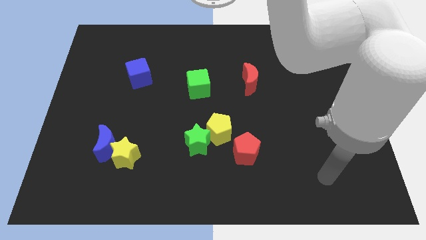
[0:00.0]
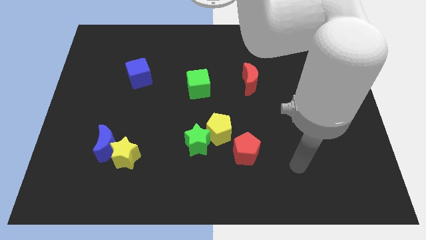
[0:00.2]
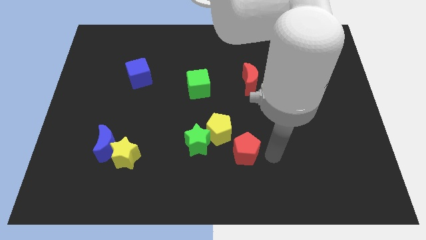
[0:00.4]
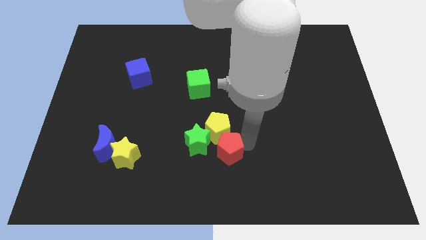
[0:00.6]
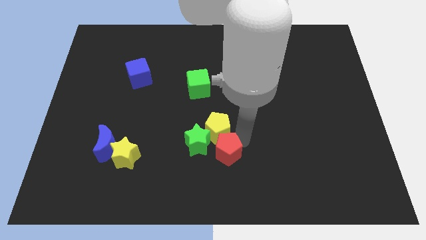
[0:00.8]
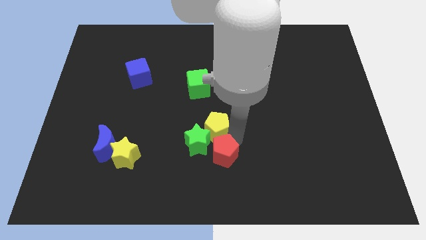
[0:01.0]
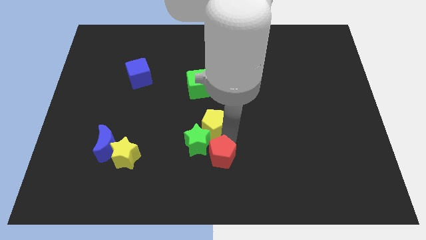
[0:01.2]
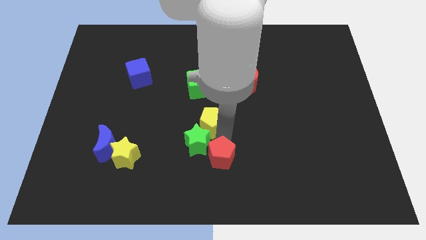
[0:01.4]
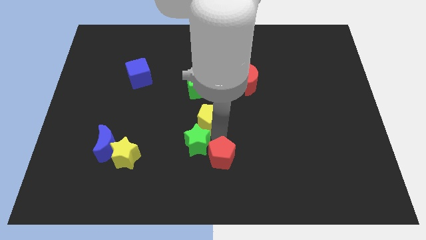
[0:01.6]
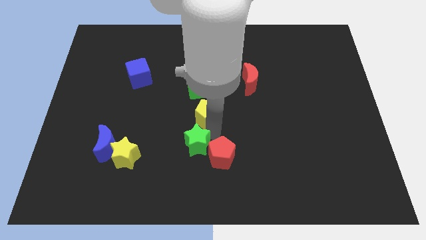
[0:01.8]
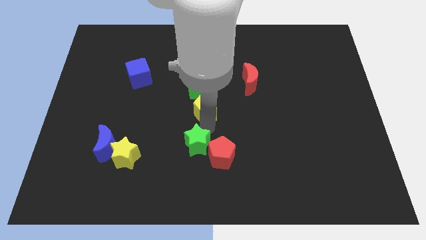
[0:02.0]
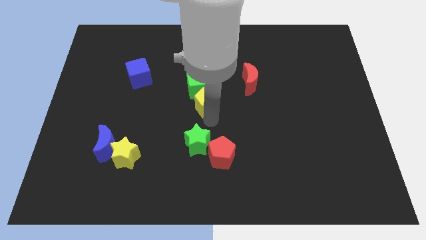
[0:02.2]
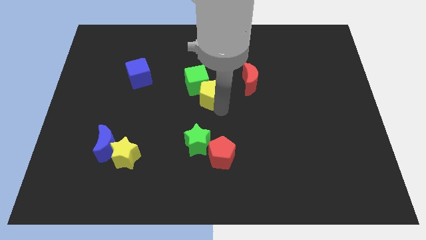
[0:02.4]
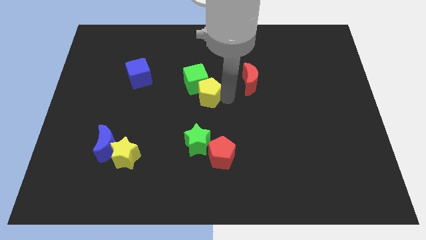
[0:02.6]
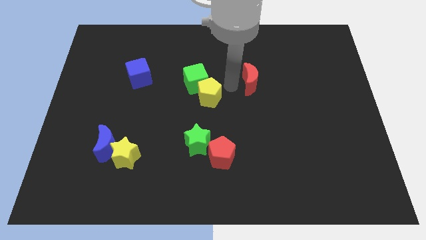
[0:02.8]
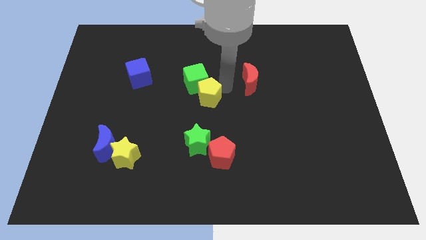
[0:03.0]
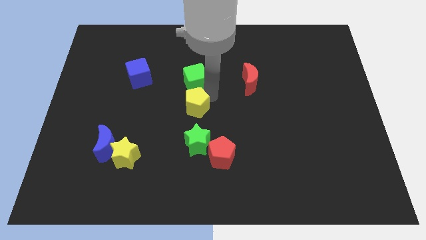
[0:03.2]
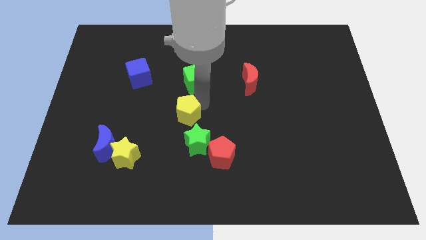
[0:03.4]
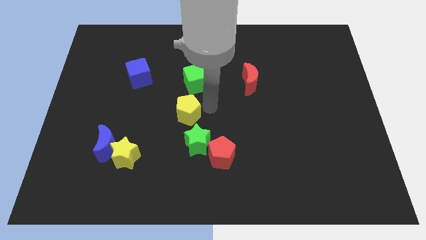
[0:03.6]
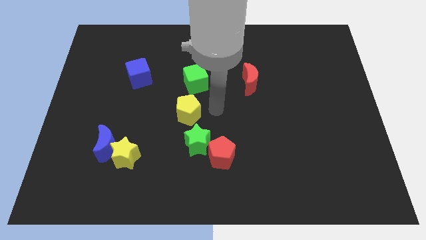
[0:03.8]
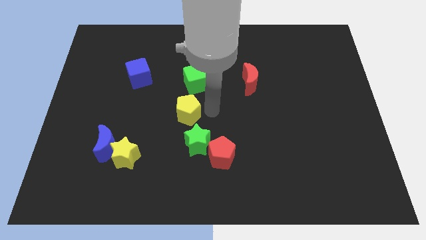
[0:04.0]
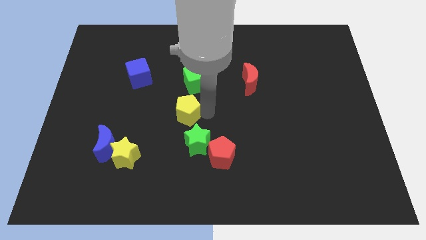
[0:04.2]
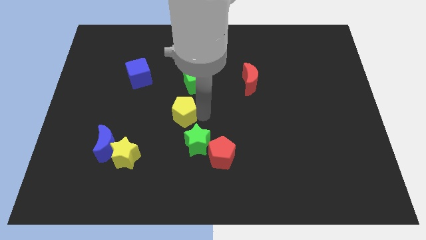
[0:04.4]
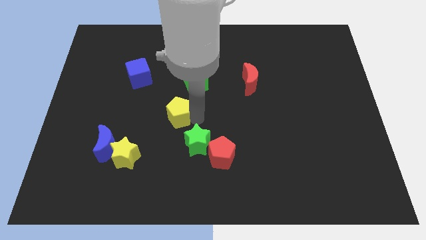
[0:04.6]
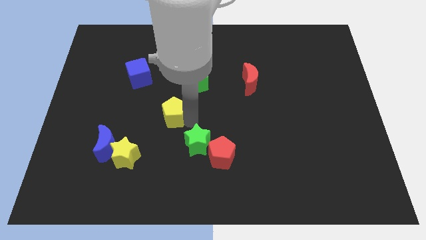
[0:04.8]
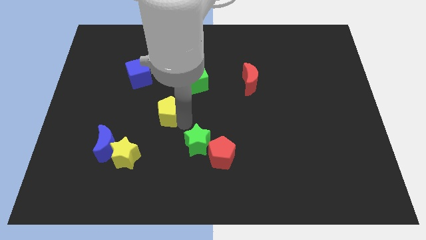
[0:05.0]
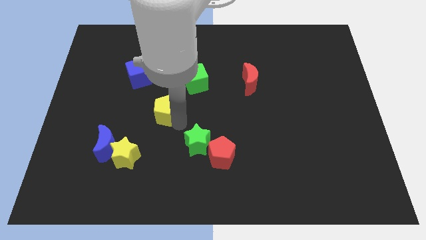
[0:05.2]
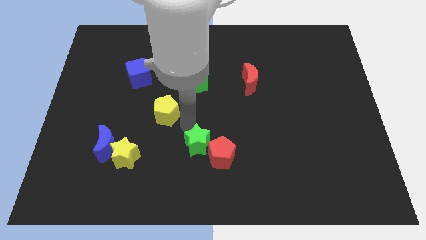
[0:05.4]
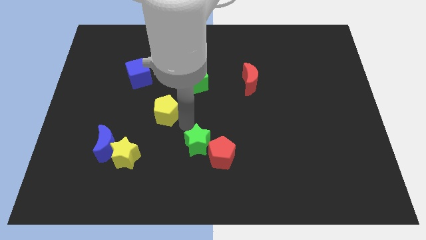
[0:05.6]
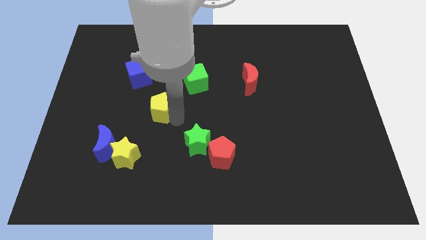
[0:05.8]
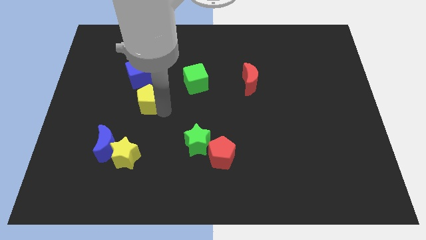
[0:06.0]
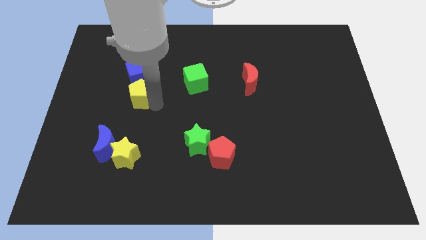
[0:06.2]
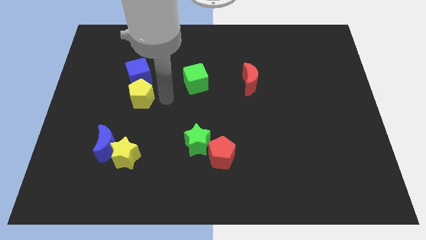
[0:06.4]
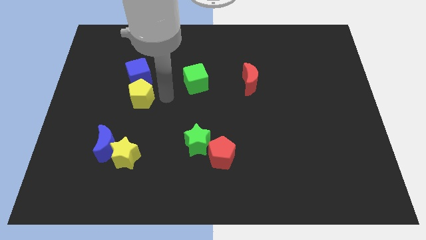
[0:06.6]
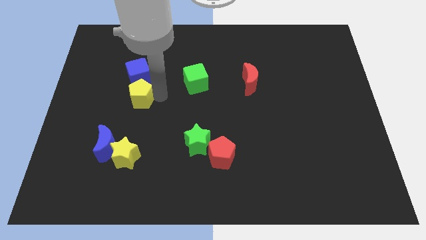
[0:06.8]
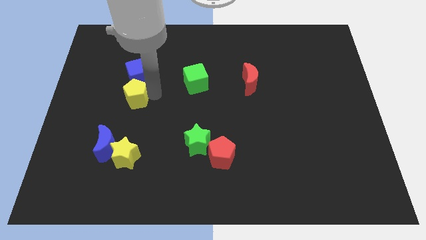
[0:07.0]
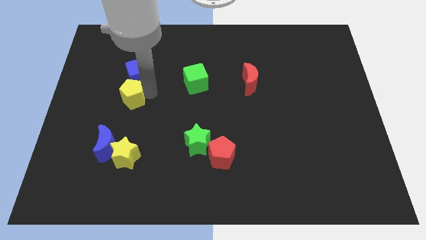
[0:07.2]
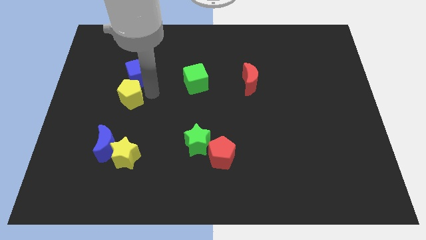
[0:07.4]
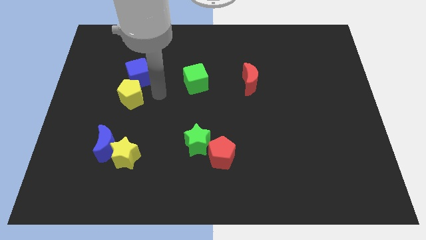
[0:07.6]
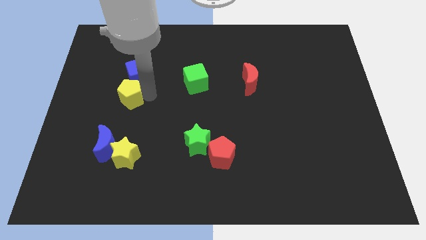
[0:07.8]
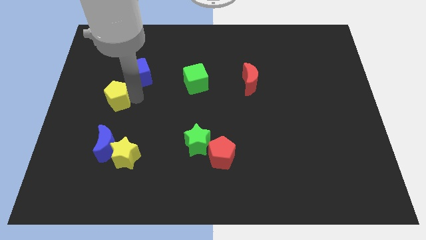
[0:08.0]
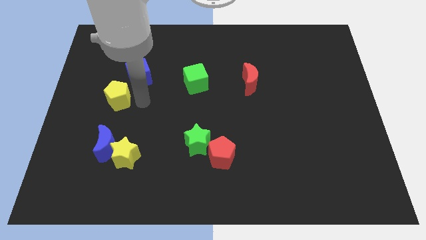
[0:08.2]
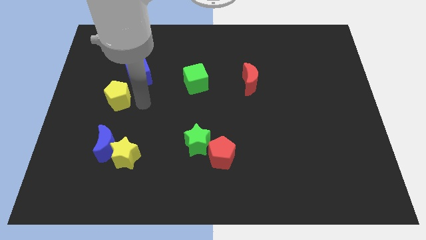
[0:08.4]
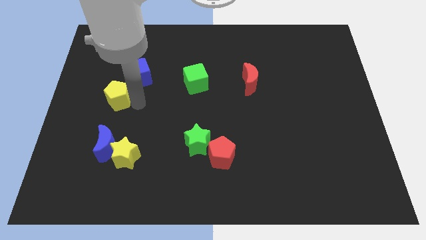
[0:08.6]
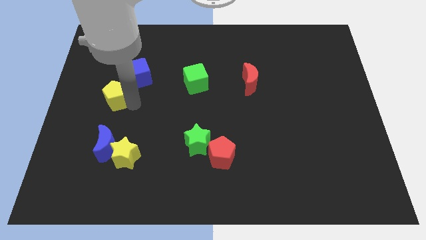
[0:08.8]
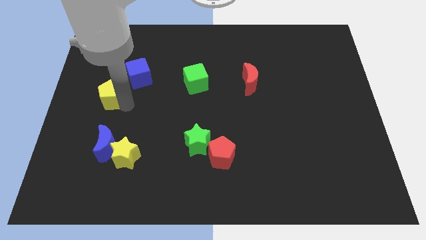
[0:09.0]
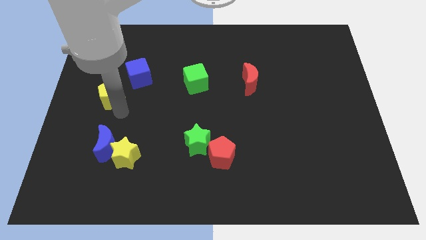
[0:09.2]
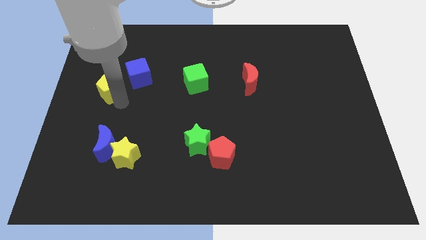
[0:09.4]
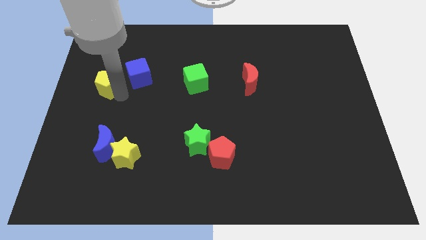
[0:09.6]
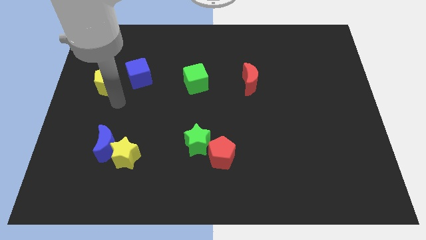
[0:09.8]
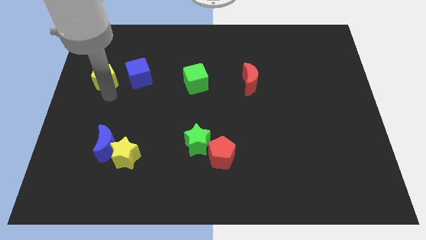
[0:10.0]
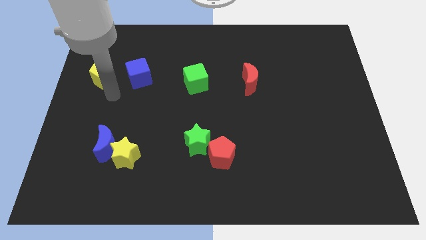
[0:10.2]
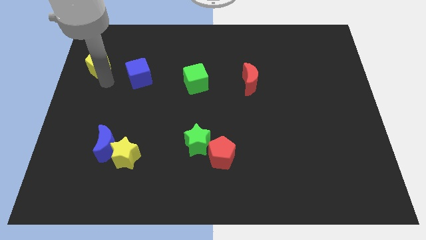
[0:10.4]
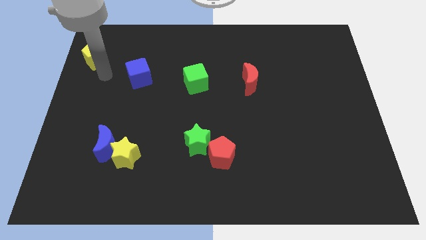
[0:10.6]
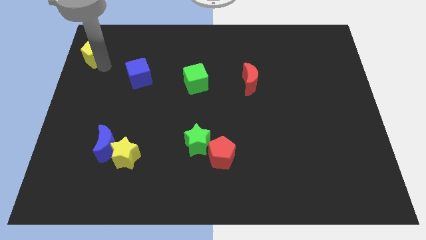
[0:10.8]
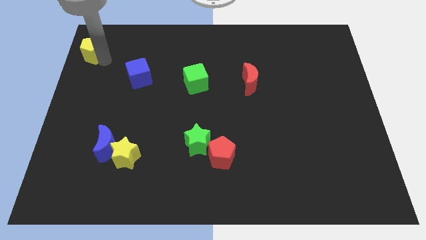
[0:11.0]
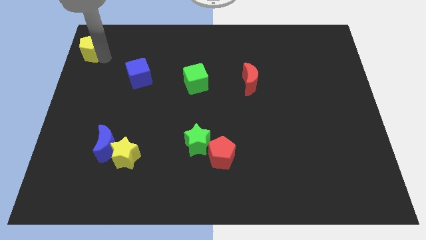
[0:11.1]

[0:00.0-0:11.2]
put the yellow pentagon to the top left of the board
